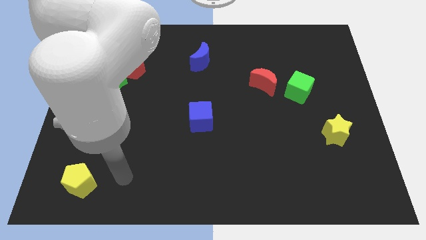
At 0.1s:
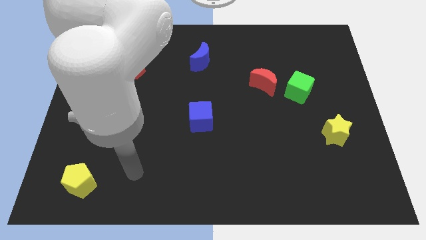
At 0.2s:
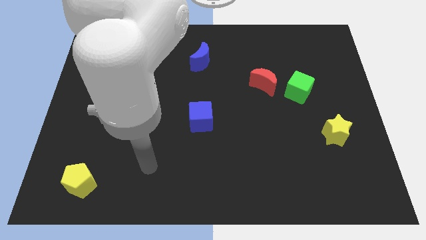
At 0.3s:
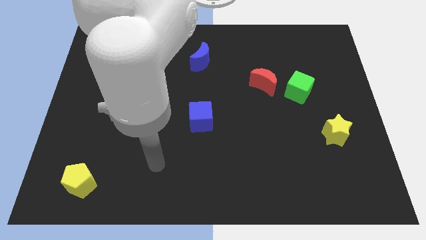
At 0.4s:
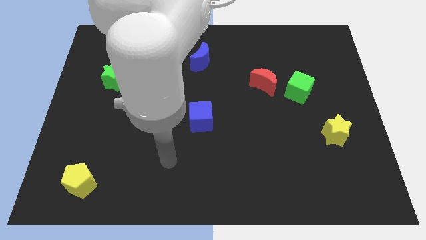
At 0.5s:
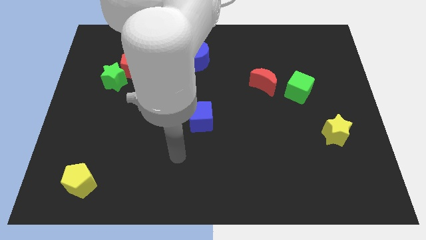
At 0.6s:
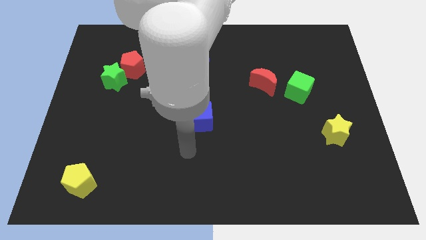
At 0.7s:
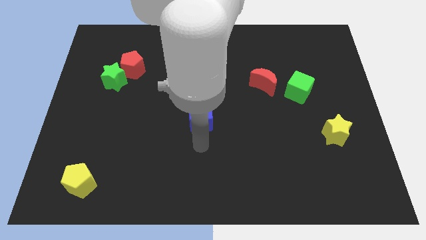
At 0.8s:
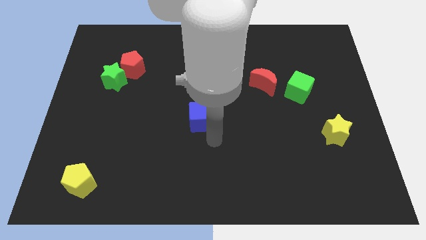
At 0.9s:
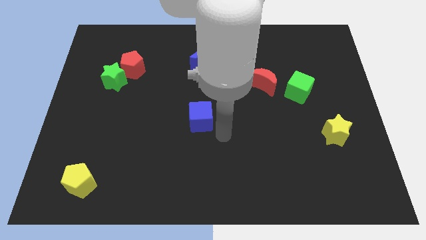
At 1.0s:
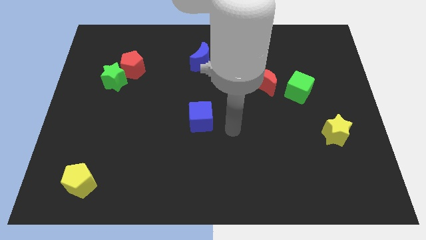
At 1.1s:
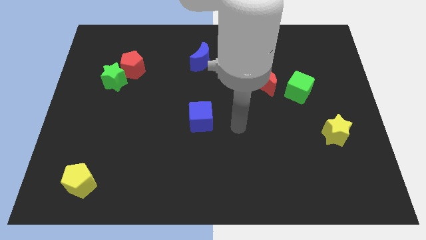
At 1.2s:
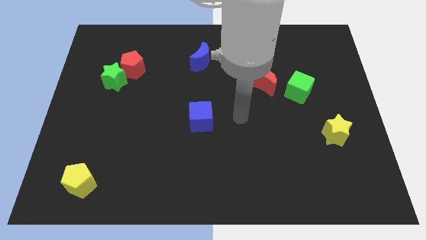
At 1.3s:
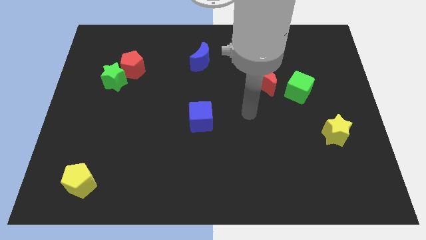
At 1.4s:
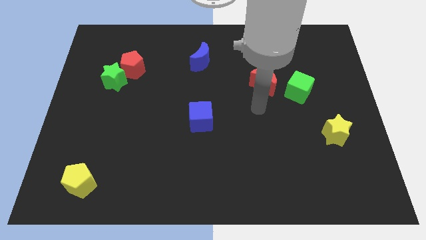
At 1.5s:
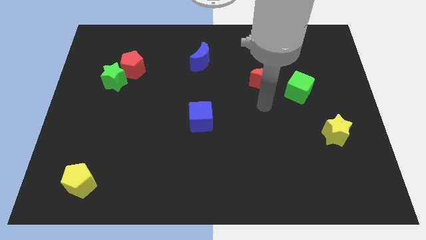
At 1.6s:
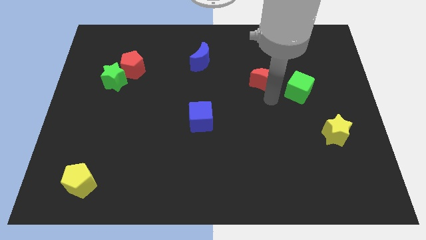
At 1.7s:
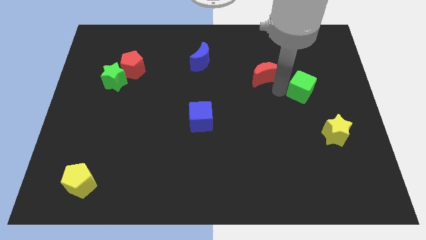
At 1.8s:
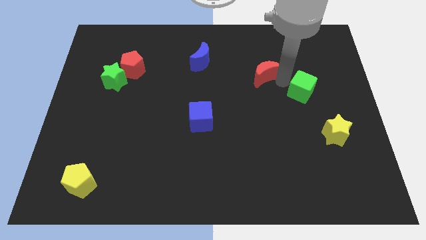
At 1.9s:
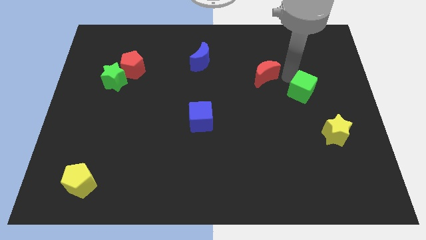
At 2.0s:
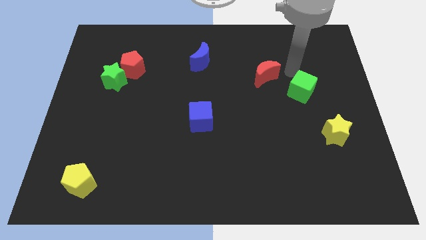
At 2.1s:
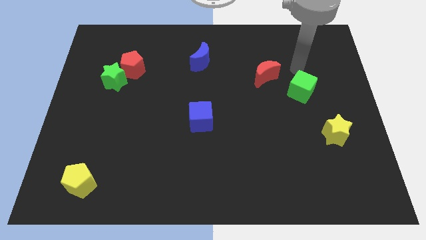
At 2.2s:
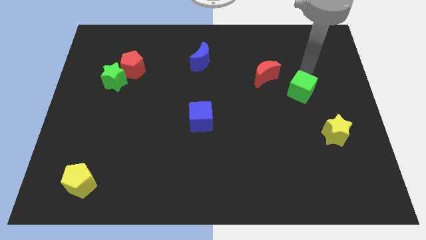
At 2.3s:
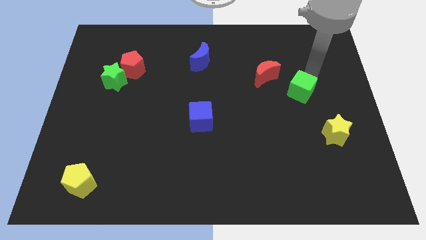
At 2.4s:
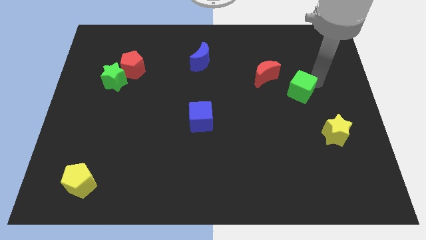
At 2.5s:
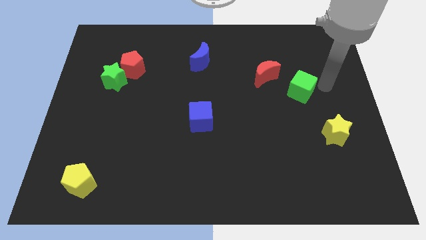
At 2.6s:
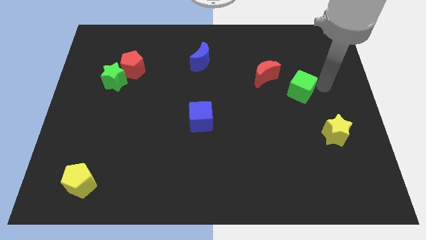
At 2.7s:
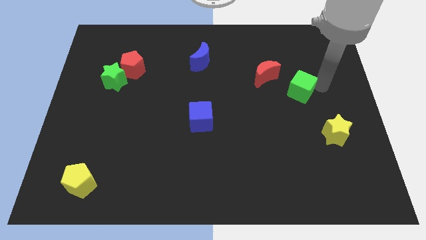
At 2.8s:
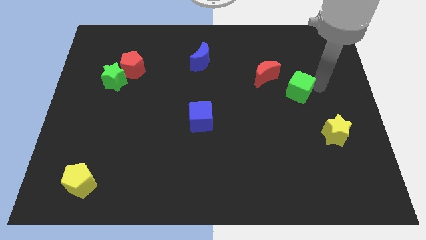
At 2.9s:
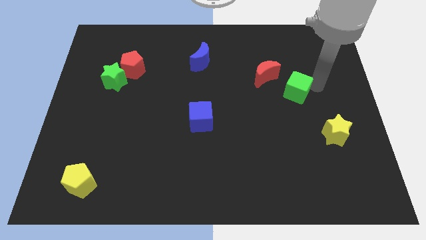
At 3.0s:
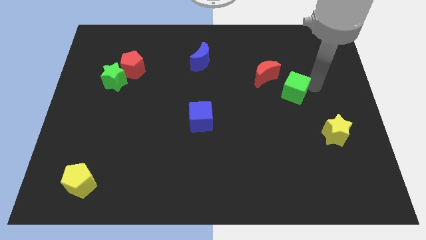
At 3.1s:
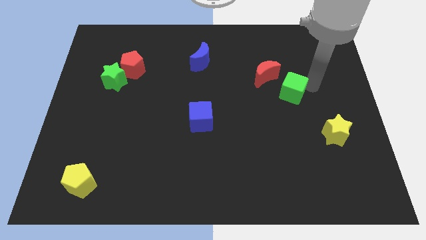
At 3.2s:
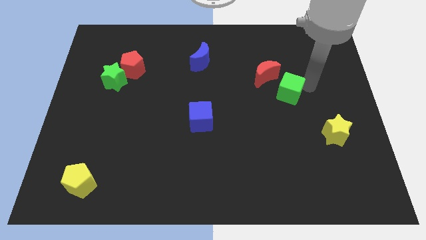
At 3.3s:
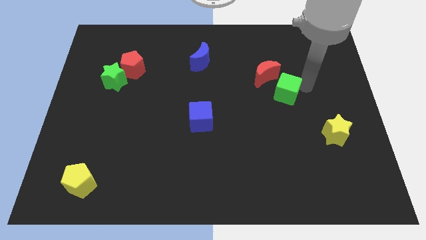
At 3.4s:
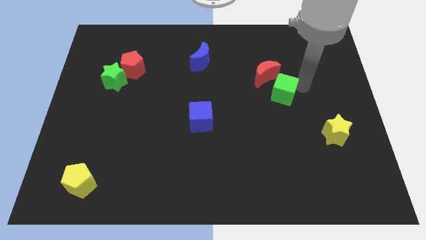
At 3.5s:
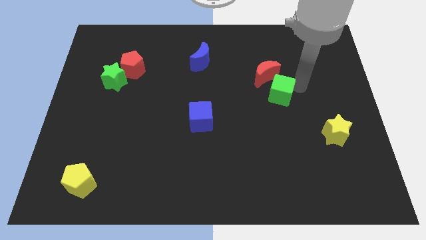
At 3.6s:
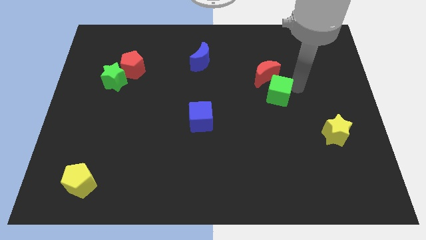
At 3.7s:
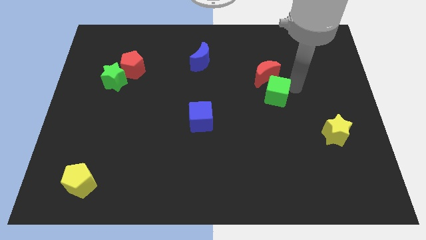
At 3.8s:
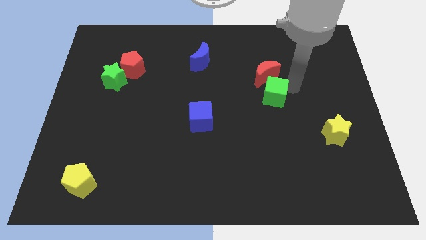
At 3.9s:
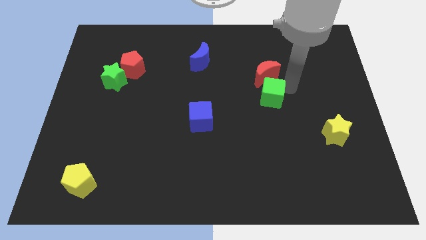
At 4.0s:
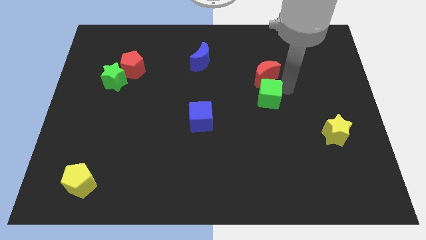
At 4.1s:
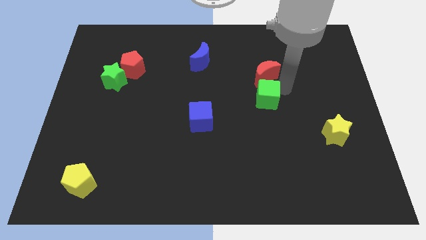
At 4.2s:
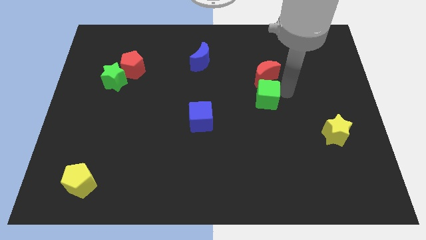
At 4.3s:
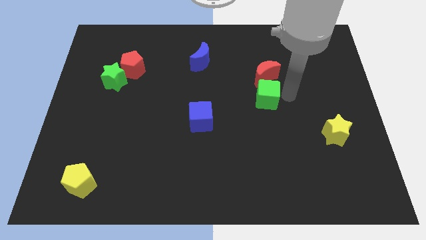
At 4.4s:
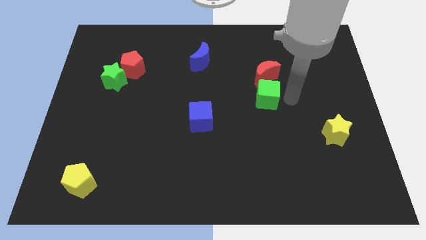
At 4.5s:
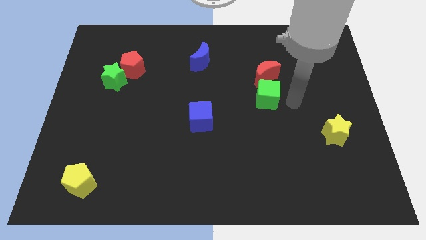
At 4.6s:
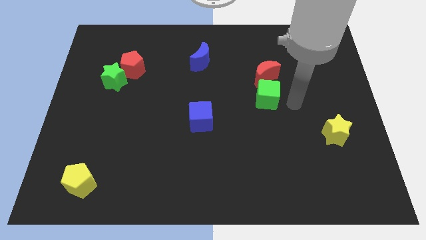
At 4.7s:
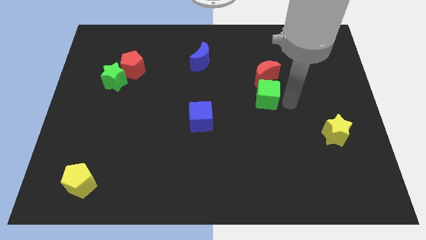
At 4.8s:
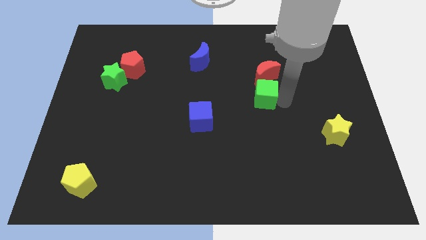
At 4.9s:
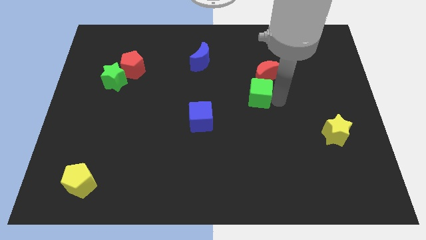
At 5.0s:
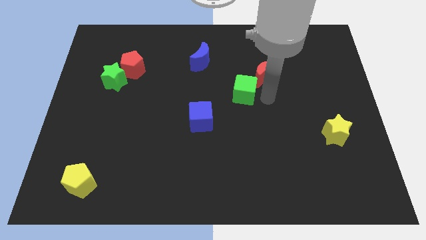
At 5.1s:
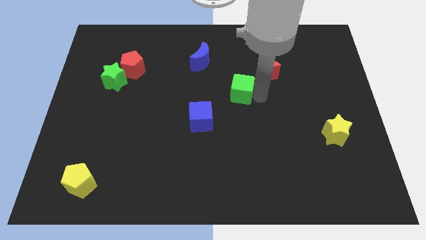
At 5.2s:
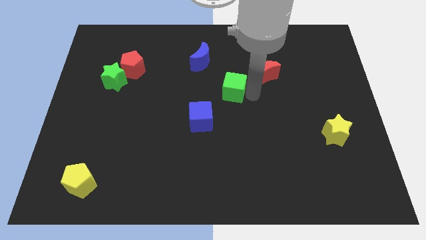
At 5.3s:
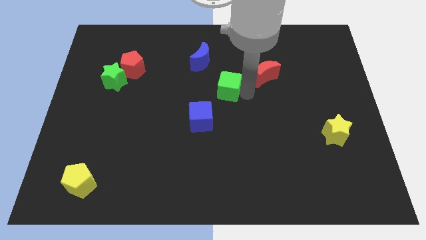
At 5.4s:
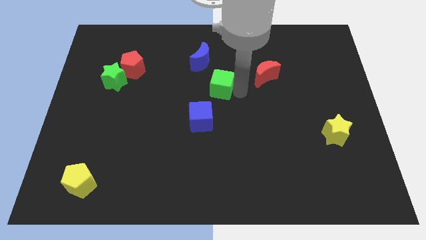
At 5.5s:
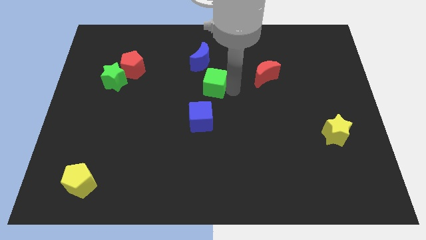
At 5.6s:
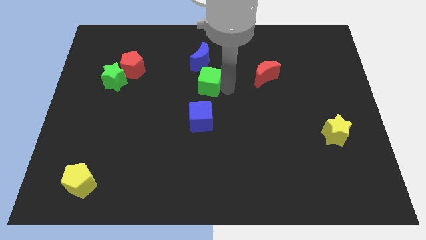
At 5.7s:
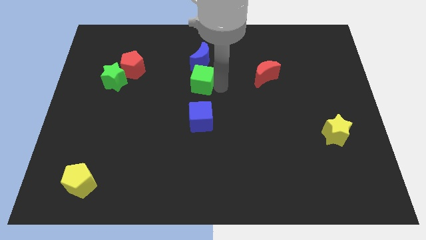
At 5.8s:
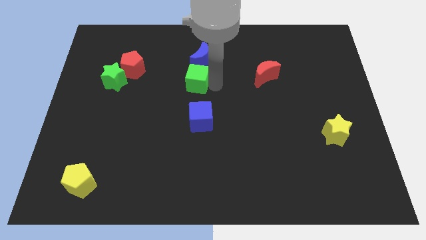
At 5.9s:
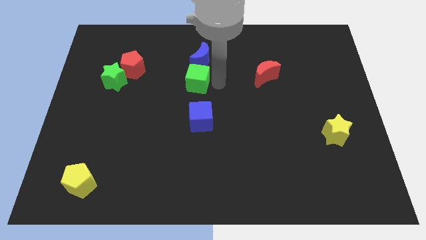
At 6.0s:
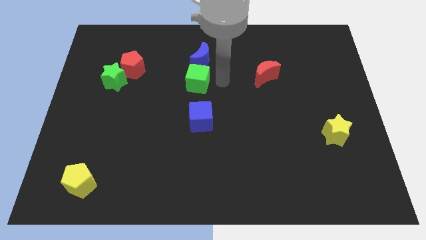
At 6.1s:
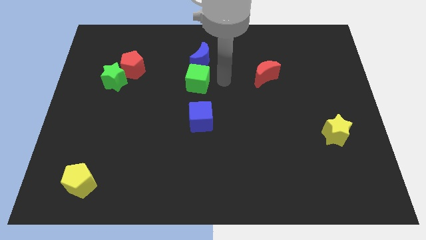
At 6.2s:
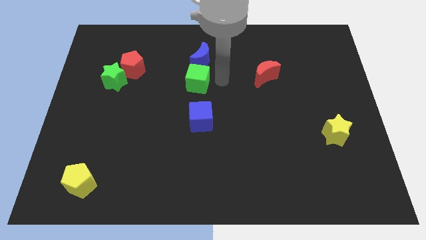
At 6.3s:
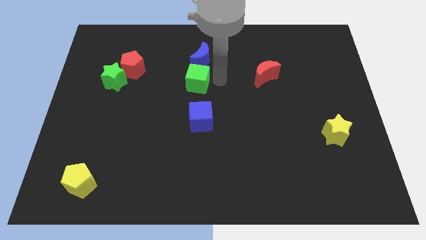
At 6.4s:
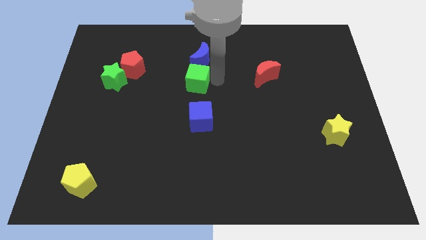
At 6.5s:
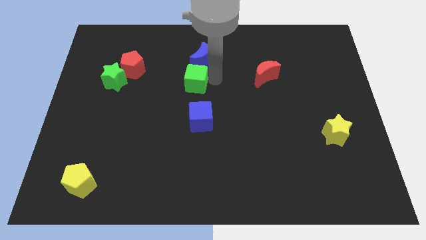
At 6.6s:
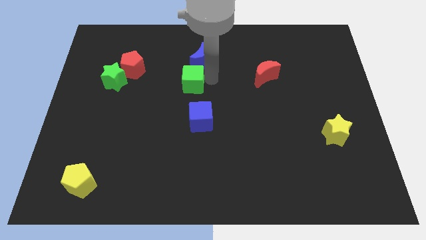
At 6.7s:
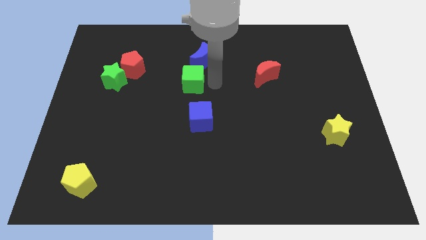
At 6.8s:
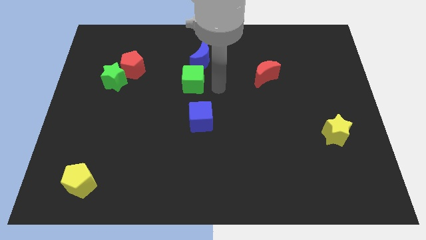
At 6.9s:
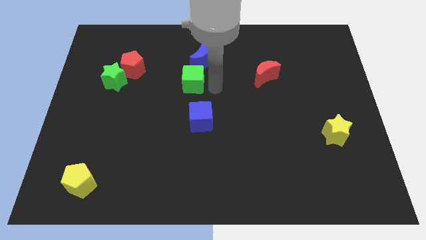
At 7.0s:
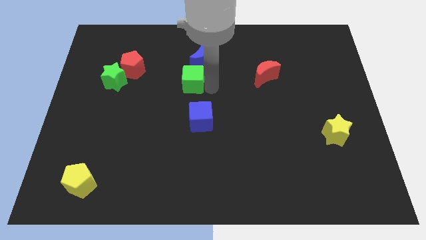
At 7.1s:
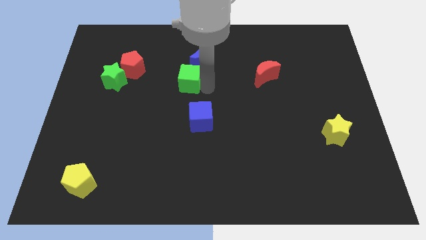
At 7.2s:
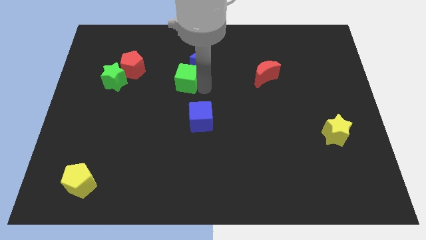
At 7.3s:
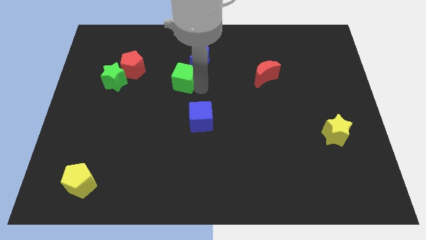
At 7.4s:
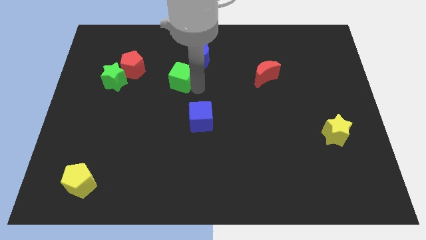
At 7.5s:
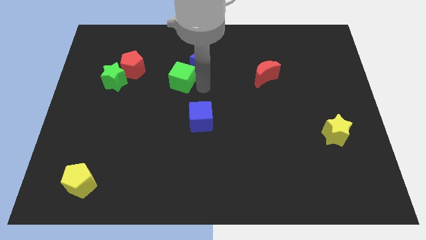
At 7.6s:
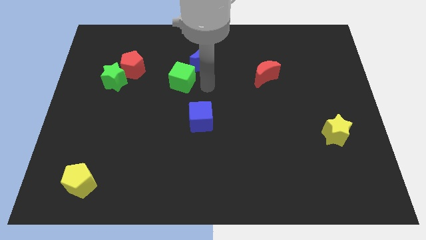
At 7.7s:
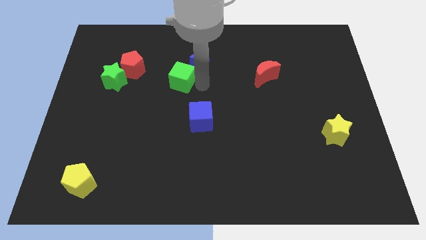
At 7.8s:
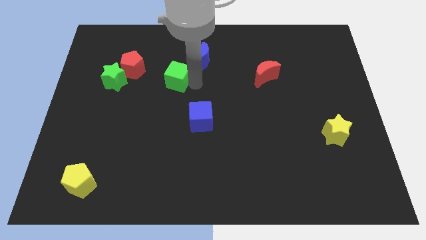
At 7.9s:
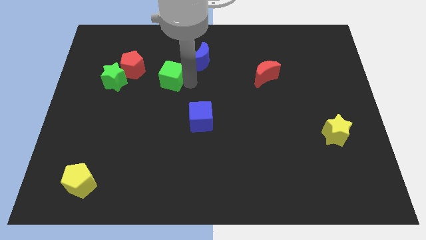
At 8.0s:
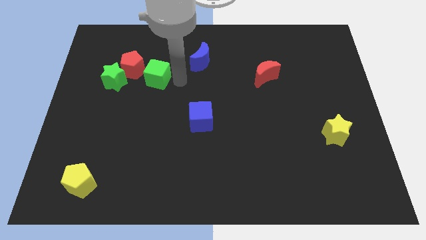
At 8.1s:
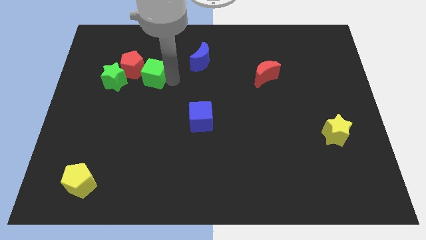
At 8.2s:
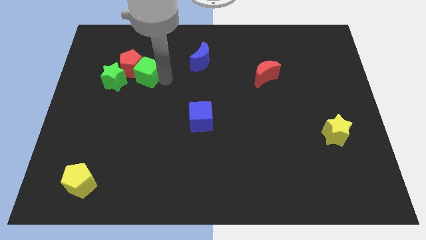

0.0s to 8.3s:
move the green cube to the red pentagon
